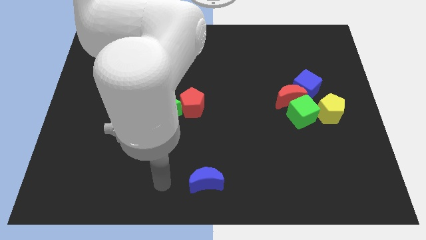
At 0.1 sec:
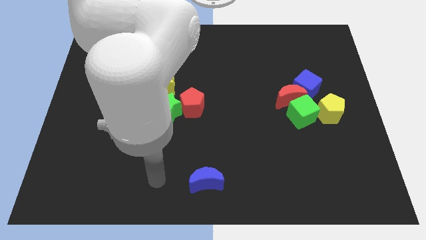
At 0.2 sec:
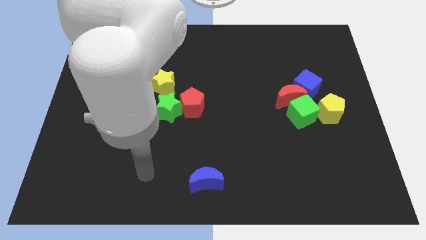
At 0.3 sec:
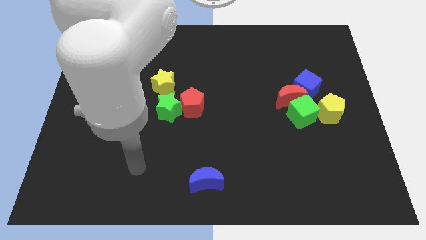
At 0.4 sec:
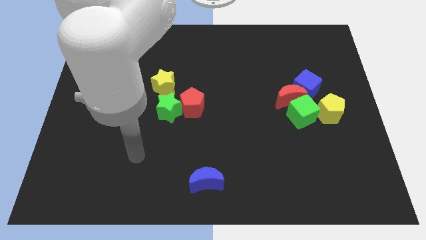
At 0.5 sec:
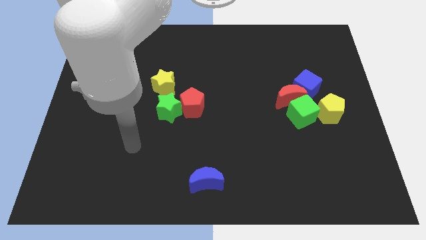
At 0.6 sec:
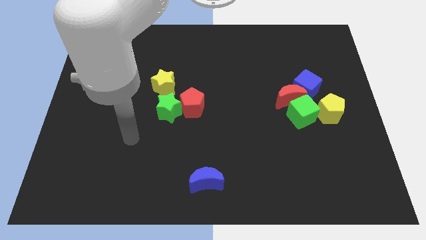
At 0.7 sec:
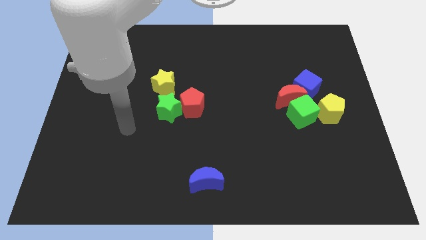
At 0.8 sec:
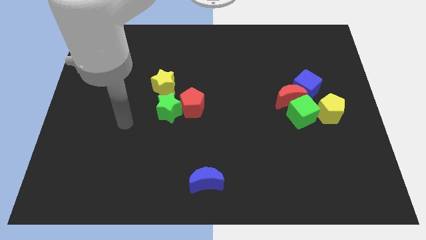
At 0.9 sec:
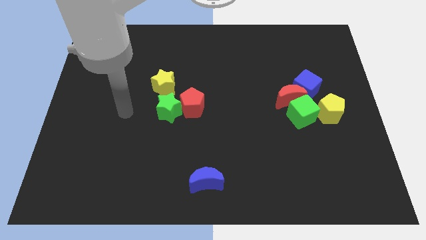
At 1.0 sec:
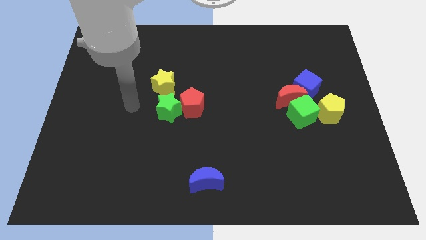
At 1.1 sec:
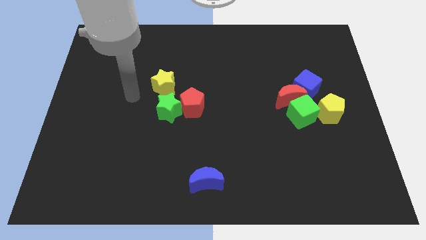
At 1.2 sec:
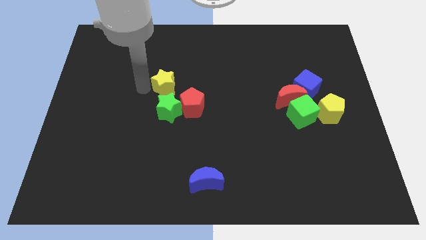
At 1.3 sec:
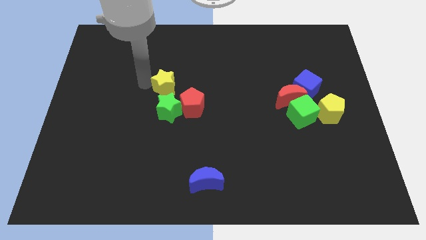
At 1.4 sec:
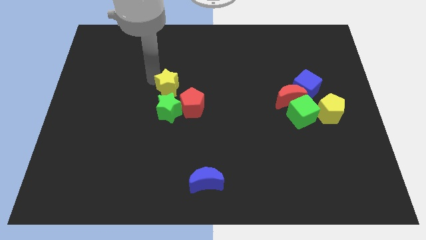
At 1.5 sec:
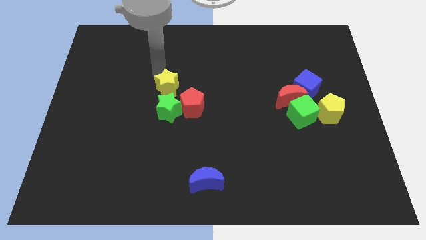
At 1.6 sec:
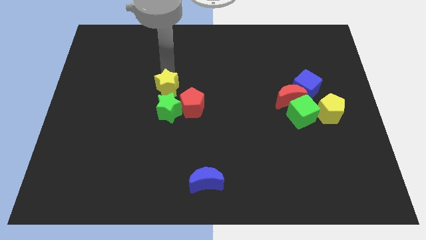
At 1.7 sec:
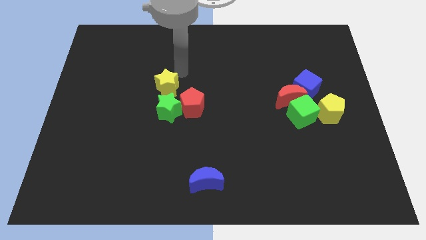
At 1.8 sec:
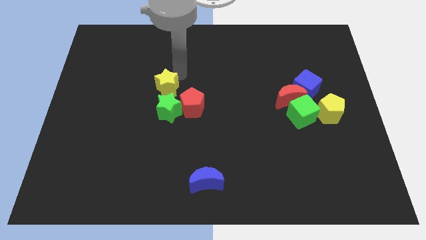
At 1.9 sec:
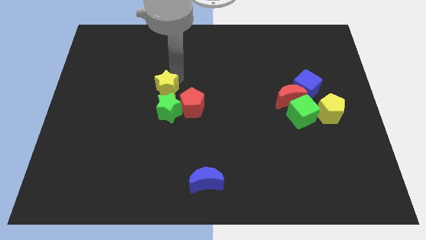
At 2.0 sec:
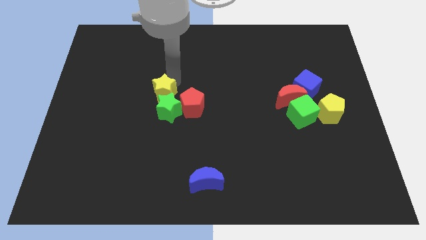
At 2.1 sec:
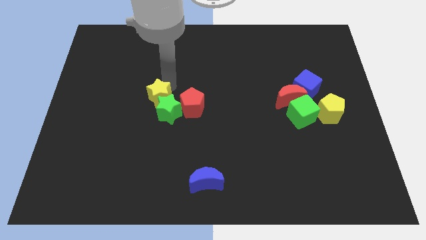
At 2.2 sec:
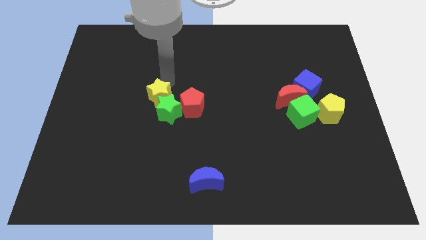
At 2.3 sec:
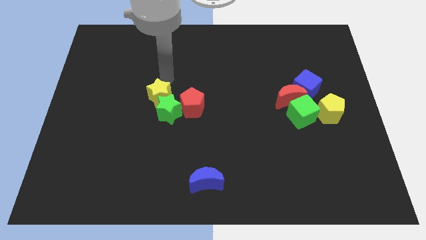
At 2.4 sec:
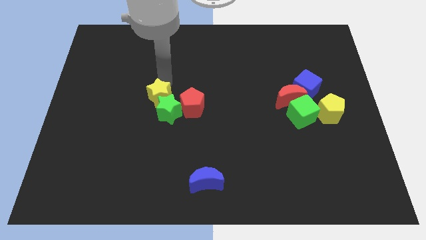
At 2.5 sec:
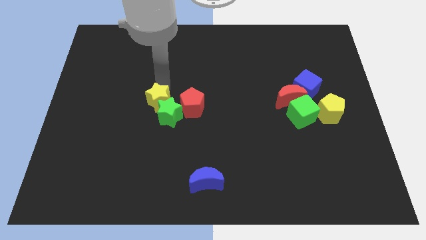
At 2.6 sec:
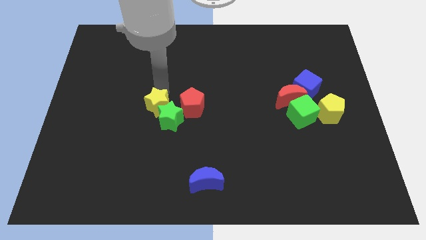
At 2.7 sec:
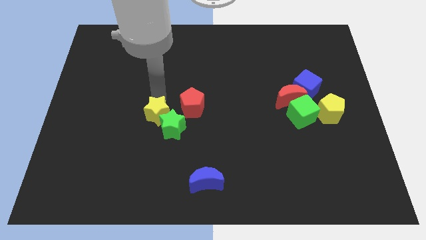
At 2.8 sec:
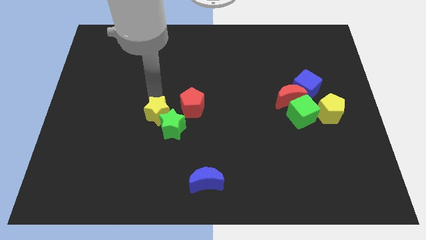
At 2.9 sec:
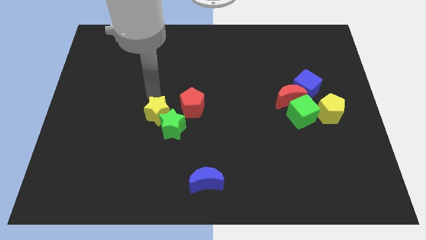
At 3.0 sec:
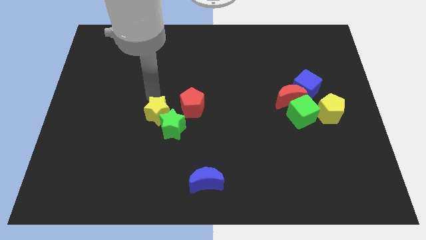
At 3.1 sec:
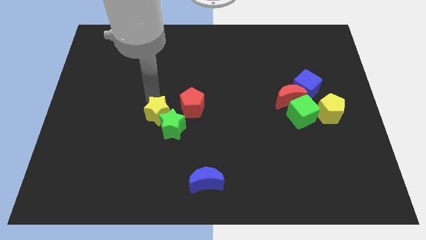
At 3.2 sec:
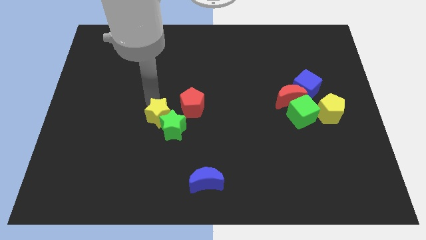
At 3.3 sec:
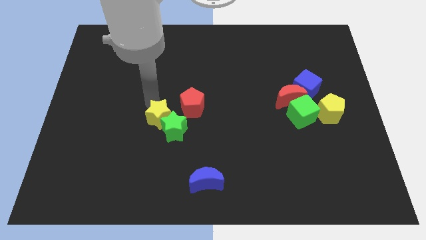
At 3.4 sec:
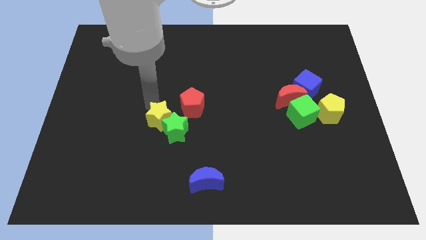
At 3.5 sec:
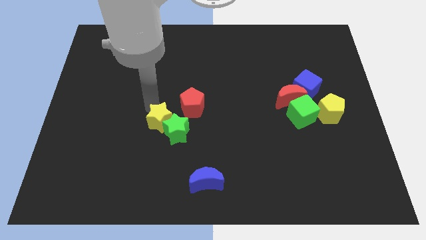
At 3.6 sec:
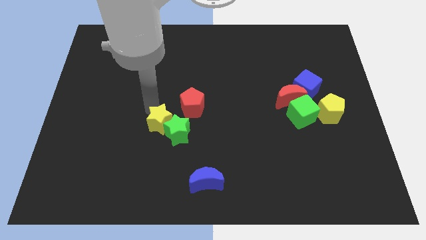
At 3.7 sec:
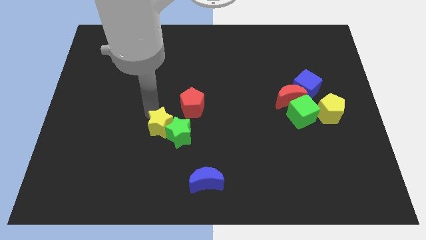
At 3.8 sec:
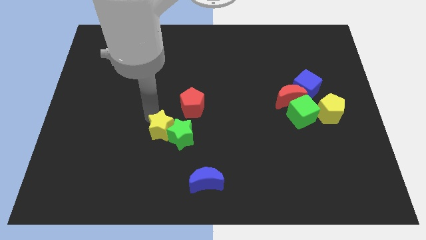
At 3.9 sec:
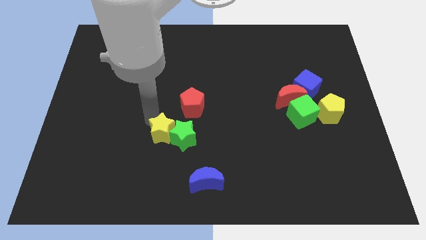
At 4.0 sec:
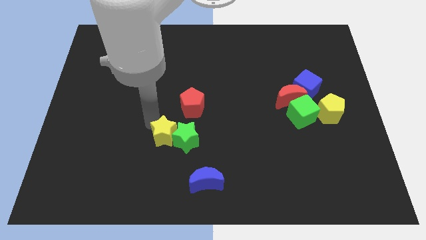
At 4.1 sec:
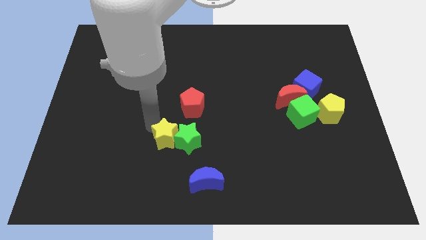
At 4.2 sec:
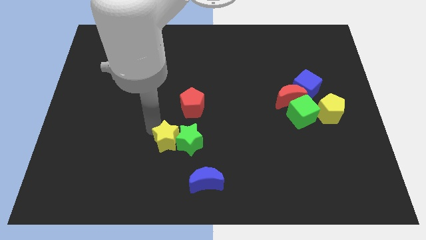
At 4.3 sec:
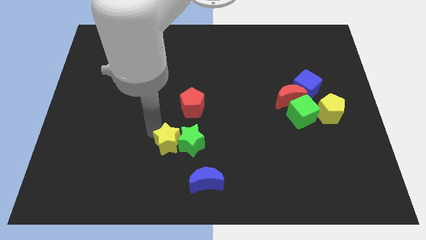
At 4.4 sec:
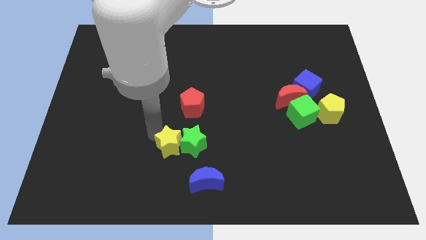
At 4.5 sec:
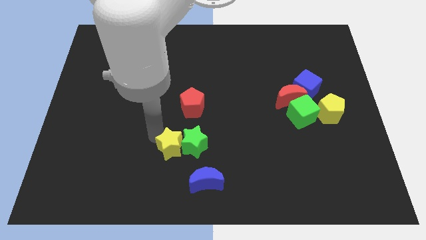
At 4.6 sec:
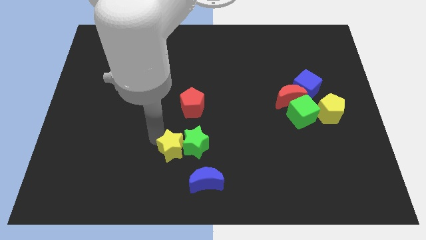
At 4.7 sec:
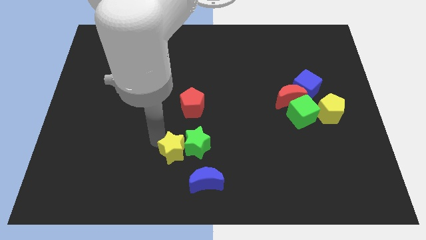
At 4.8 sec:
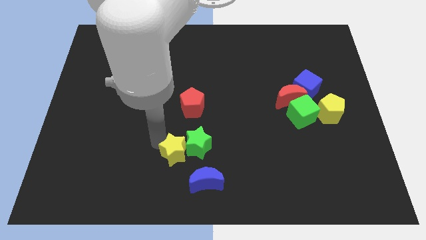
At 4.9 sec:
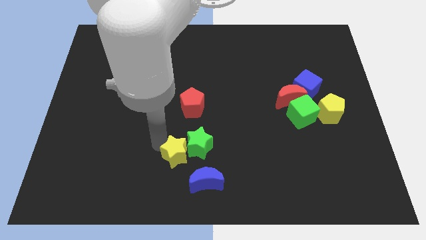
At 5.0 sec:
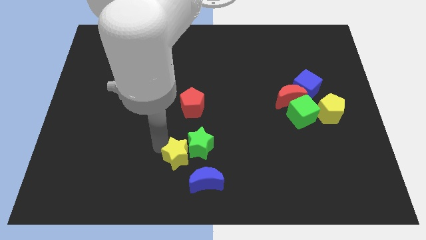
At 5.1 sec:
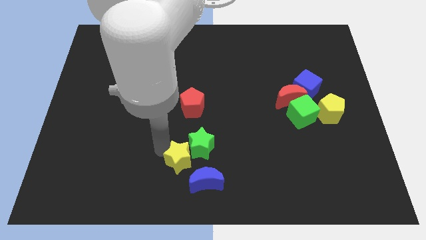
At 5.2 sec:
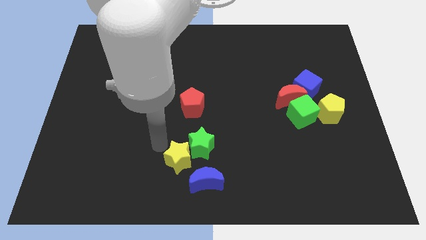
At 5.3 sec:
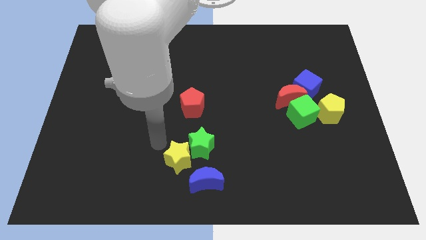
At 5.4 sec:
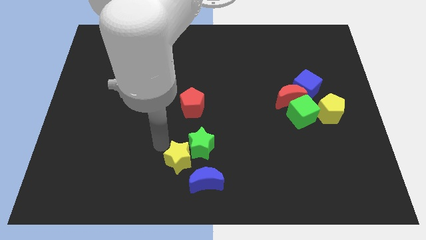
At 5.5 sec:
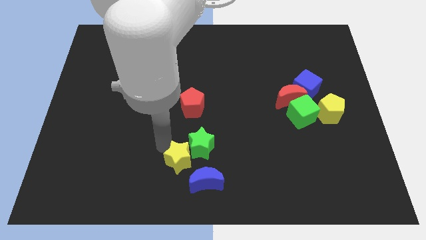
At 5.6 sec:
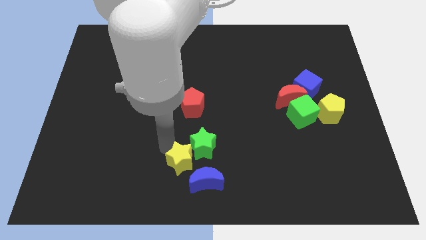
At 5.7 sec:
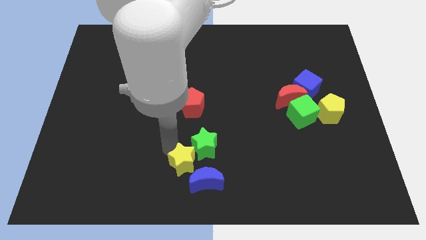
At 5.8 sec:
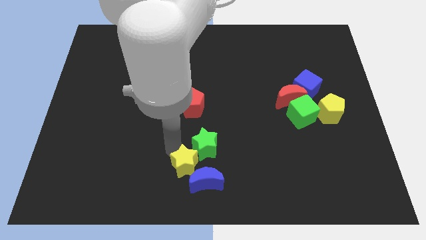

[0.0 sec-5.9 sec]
push the yellow star towards the blue moon
